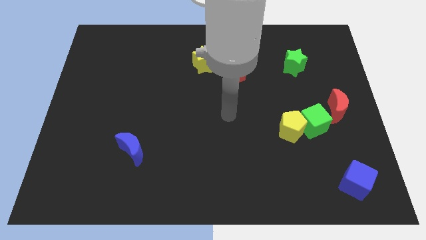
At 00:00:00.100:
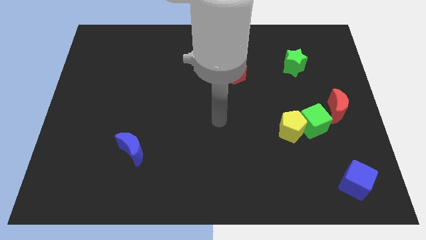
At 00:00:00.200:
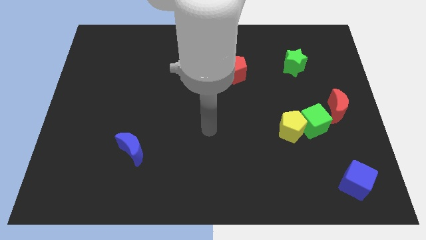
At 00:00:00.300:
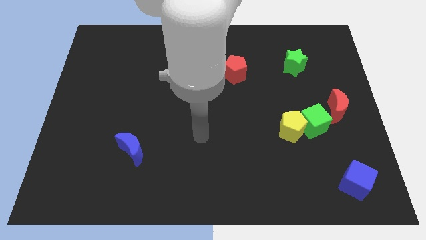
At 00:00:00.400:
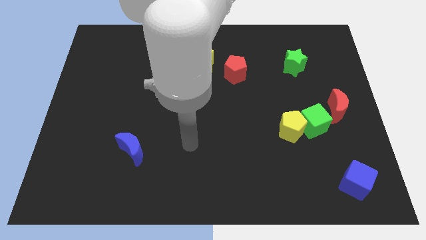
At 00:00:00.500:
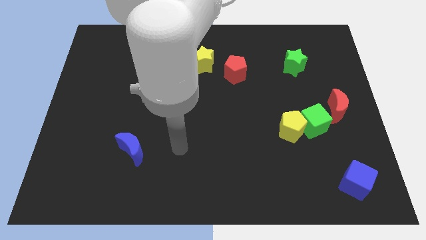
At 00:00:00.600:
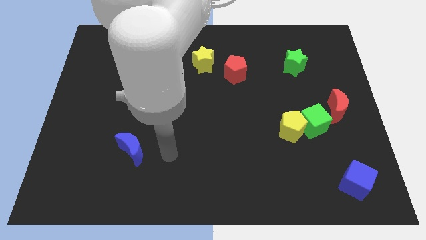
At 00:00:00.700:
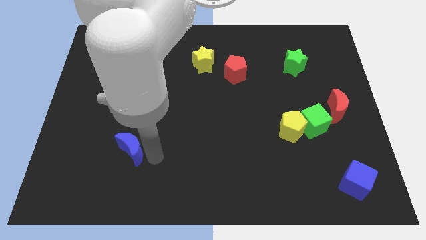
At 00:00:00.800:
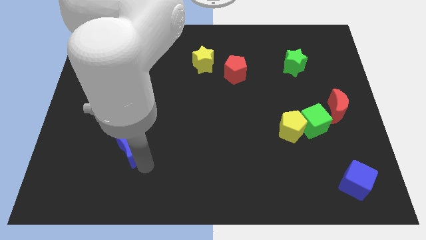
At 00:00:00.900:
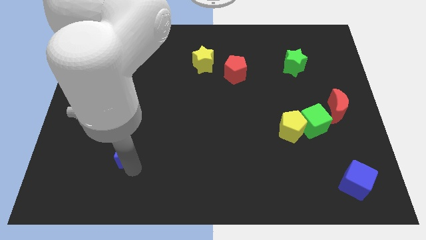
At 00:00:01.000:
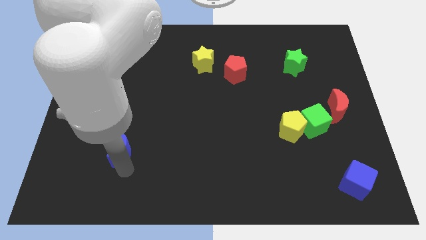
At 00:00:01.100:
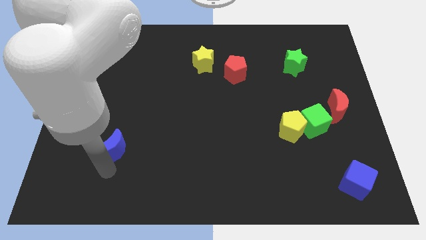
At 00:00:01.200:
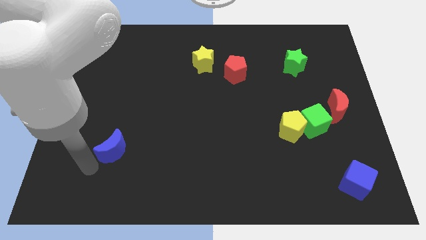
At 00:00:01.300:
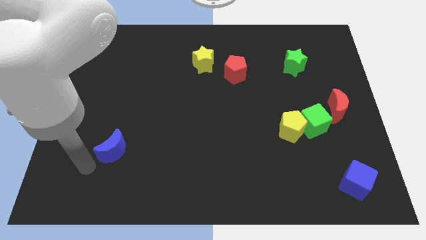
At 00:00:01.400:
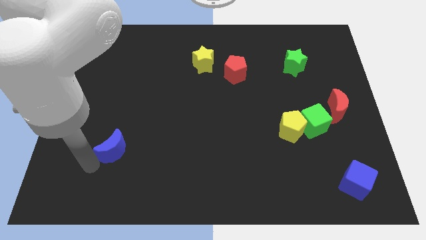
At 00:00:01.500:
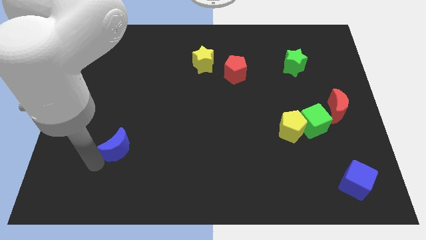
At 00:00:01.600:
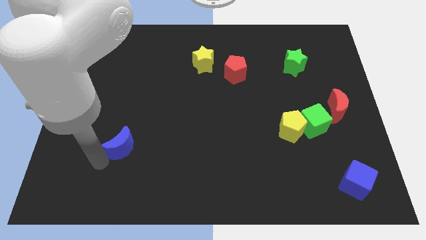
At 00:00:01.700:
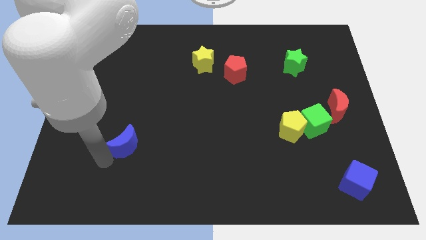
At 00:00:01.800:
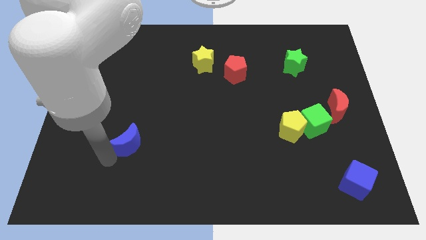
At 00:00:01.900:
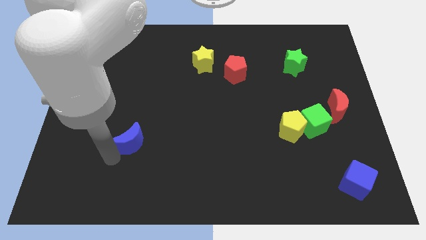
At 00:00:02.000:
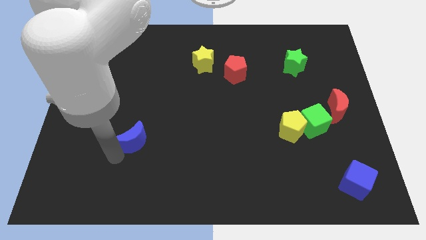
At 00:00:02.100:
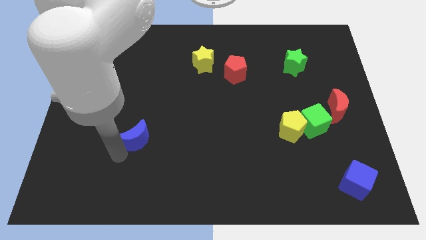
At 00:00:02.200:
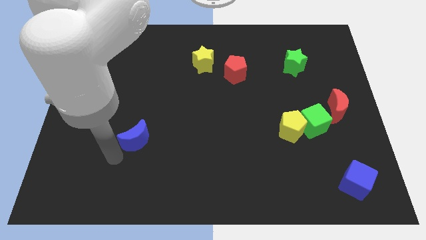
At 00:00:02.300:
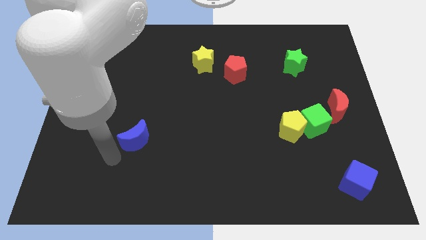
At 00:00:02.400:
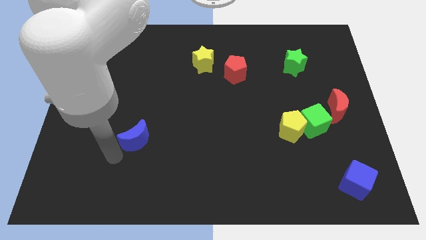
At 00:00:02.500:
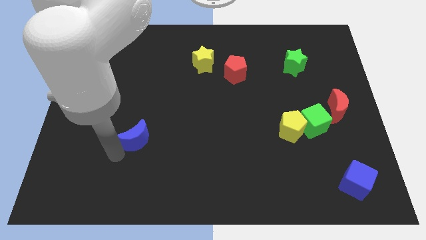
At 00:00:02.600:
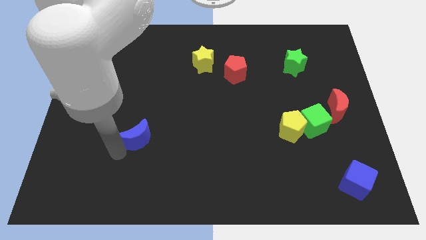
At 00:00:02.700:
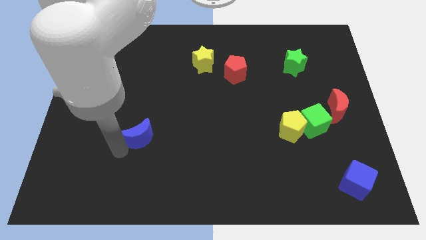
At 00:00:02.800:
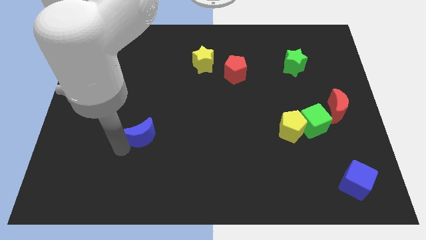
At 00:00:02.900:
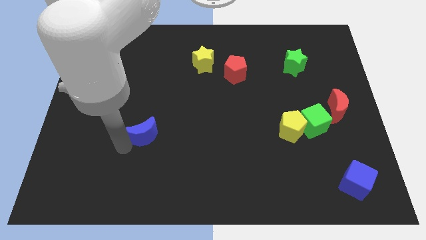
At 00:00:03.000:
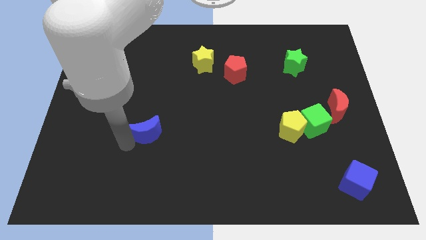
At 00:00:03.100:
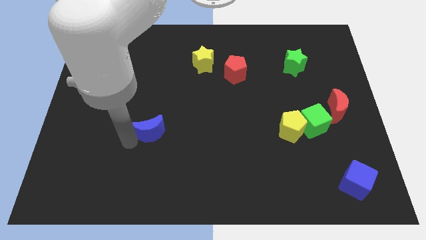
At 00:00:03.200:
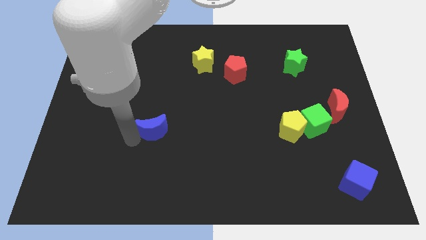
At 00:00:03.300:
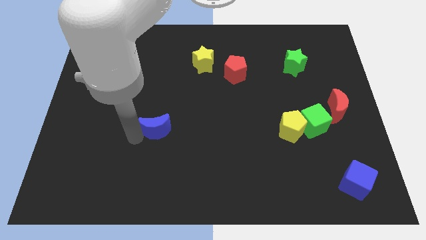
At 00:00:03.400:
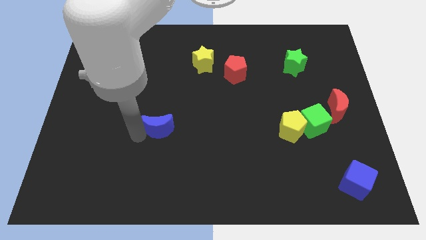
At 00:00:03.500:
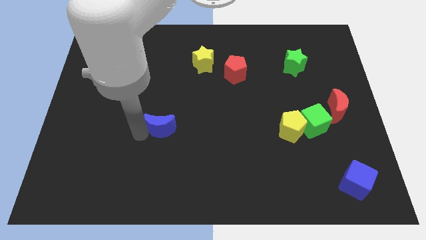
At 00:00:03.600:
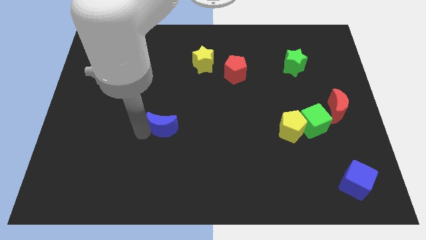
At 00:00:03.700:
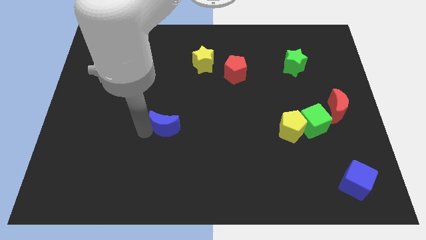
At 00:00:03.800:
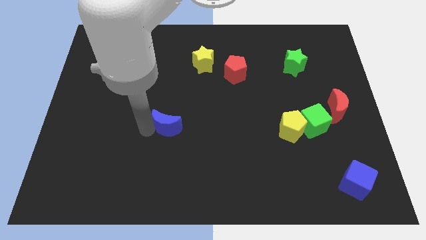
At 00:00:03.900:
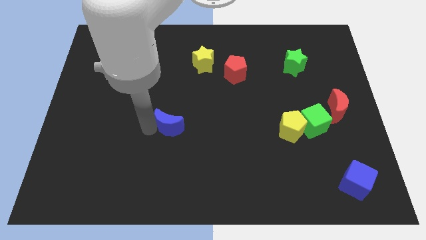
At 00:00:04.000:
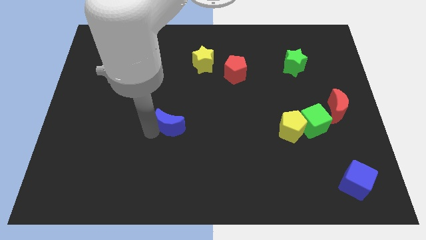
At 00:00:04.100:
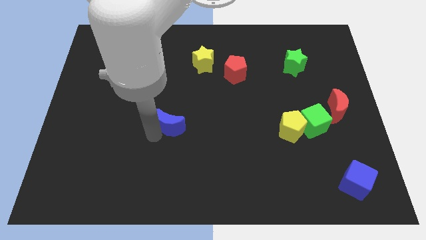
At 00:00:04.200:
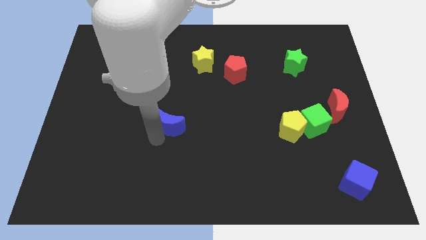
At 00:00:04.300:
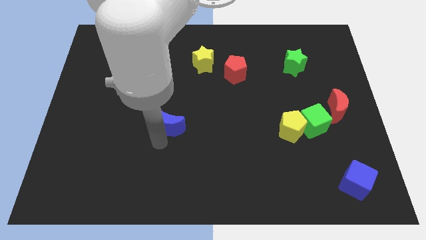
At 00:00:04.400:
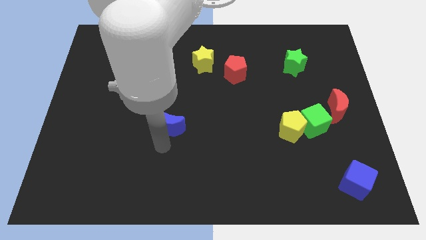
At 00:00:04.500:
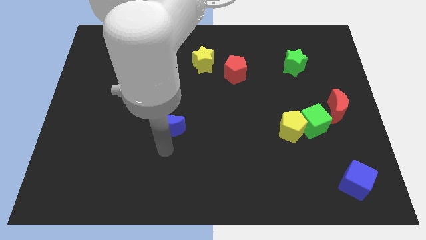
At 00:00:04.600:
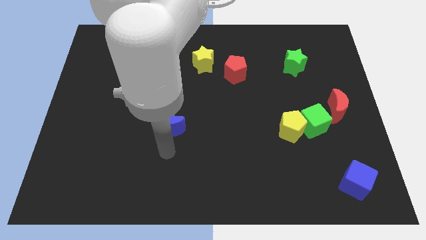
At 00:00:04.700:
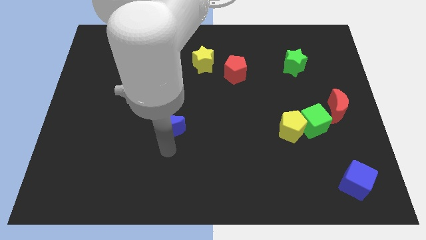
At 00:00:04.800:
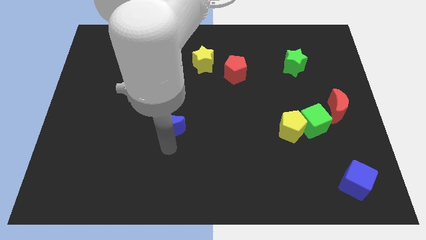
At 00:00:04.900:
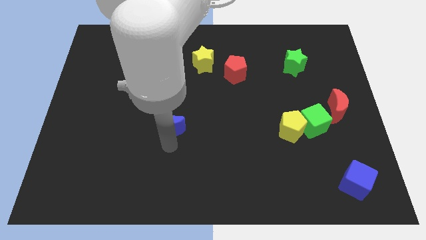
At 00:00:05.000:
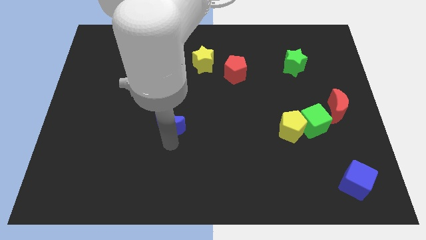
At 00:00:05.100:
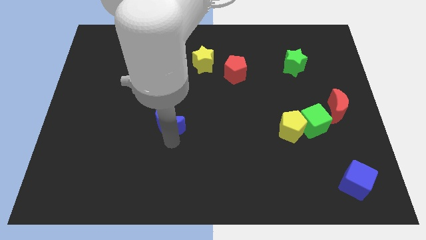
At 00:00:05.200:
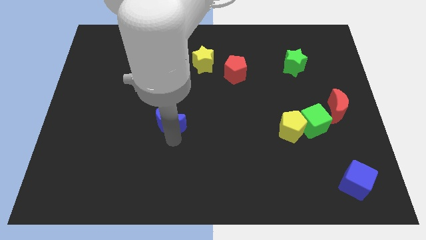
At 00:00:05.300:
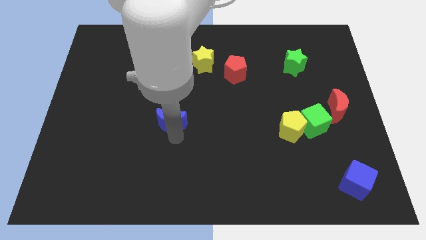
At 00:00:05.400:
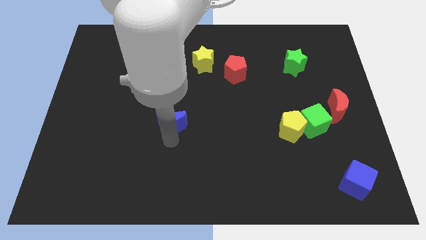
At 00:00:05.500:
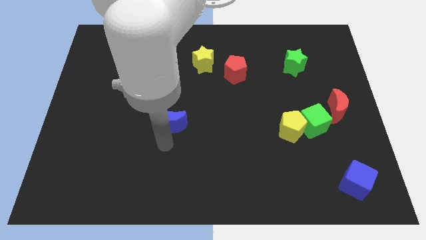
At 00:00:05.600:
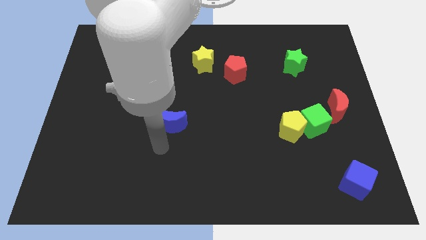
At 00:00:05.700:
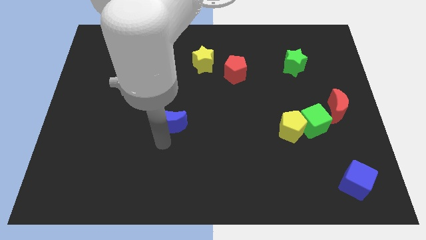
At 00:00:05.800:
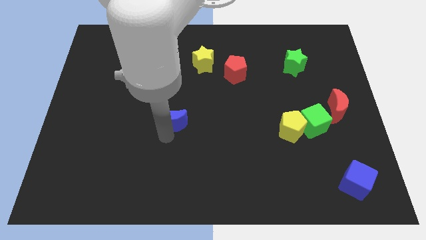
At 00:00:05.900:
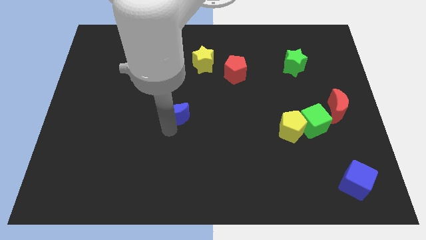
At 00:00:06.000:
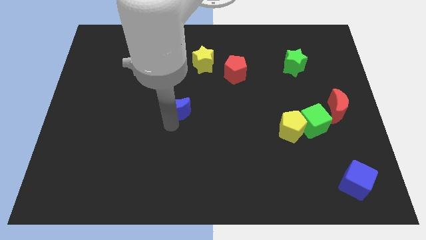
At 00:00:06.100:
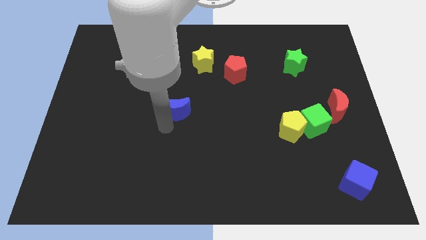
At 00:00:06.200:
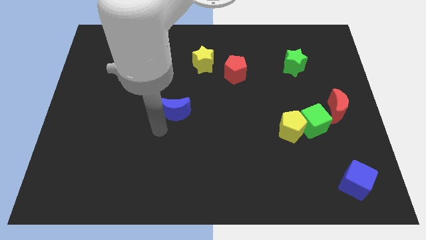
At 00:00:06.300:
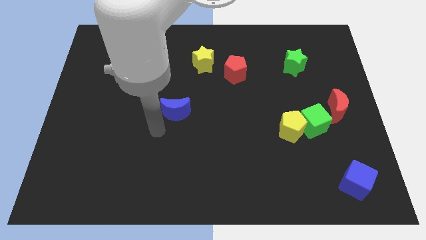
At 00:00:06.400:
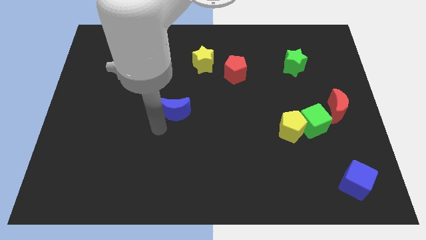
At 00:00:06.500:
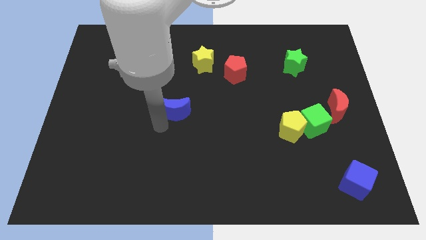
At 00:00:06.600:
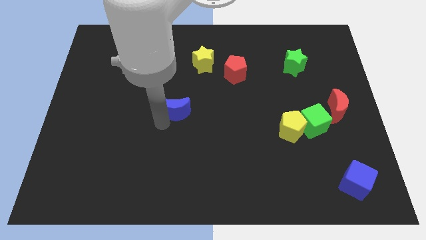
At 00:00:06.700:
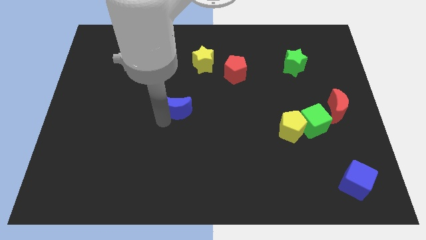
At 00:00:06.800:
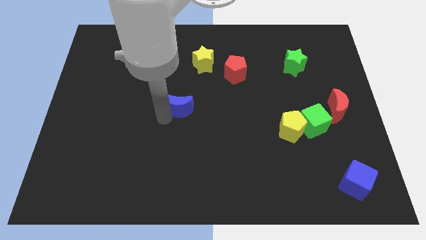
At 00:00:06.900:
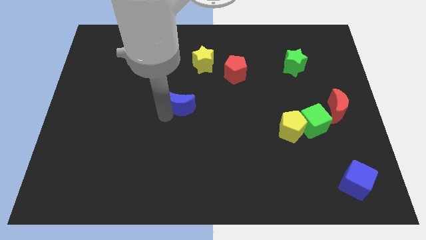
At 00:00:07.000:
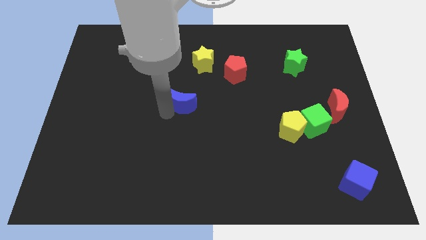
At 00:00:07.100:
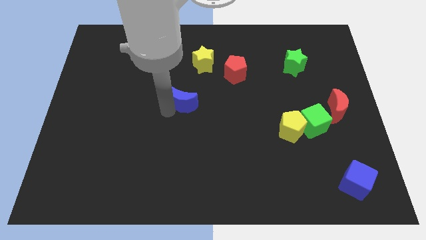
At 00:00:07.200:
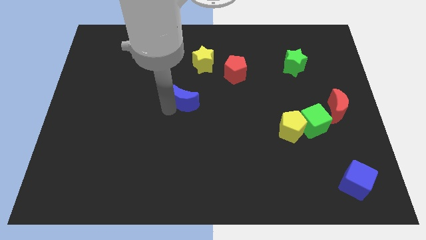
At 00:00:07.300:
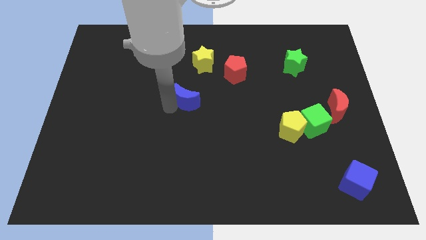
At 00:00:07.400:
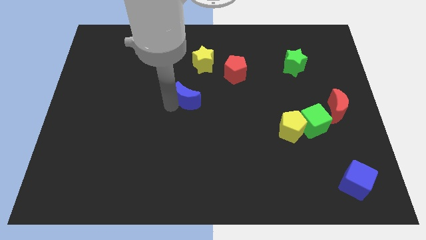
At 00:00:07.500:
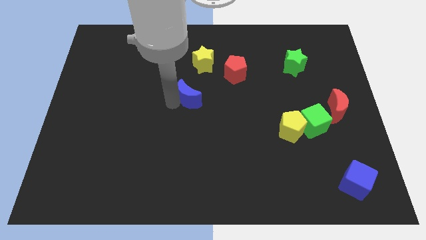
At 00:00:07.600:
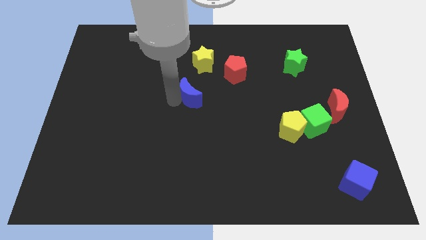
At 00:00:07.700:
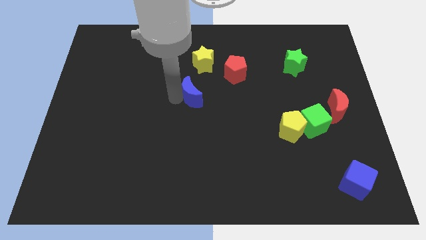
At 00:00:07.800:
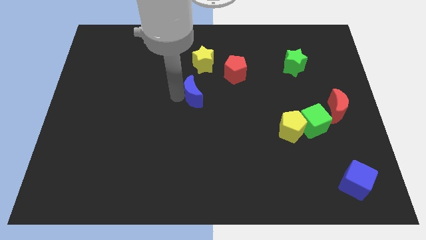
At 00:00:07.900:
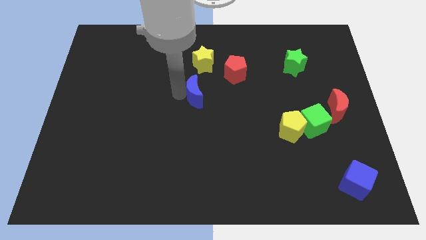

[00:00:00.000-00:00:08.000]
move the blue moon to the bottom left of the red pentagon

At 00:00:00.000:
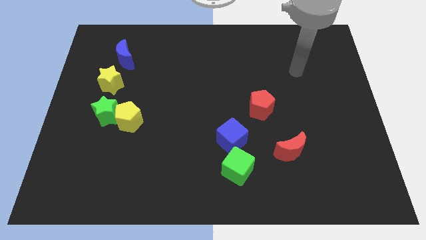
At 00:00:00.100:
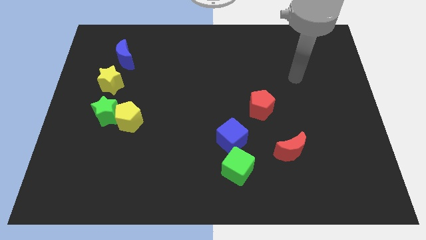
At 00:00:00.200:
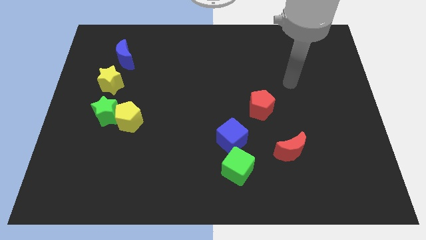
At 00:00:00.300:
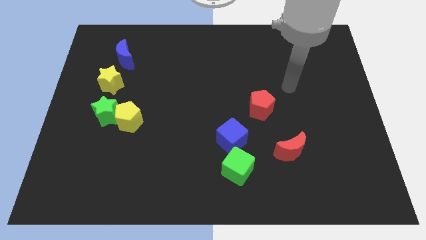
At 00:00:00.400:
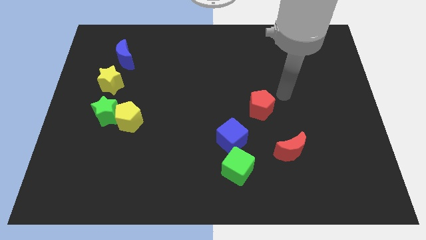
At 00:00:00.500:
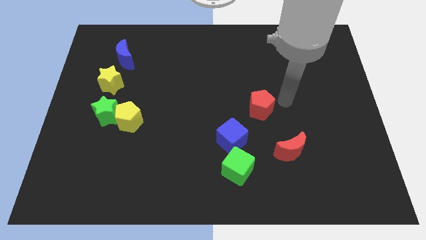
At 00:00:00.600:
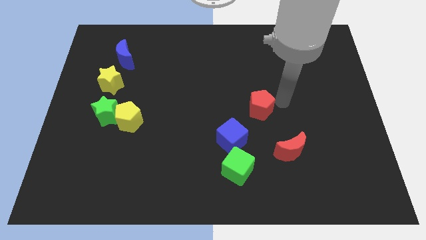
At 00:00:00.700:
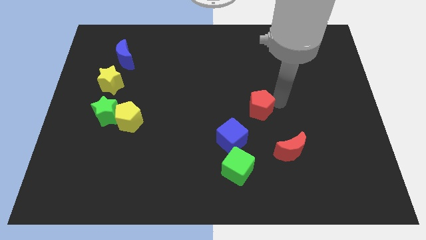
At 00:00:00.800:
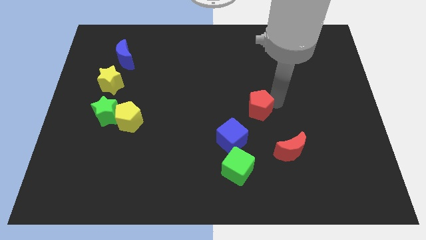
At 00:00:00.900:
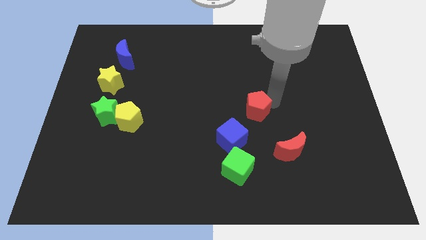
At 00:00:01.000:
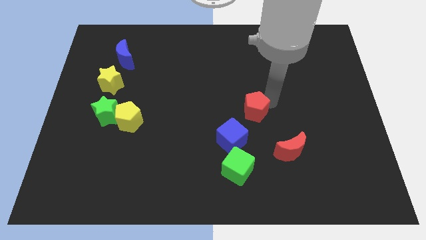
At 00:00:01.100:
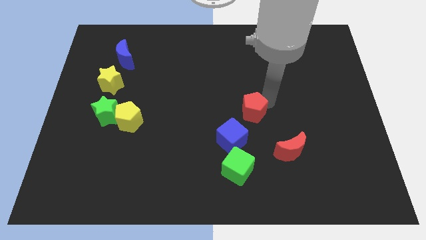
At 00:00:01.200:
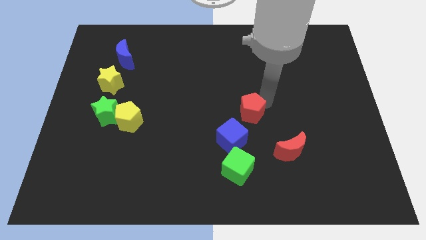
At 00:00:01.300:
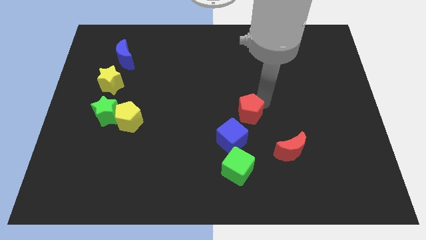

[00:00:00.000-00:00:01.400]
put the red pentagon to the top side of the green cube
